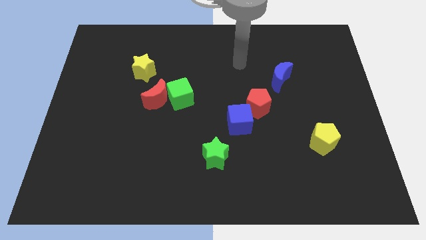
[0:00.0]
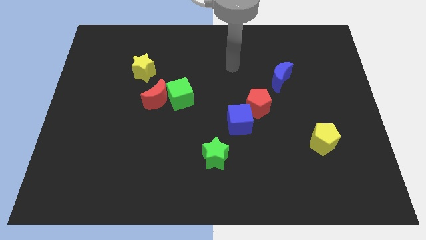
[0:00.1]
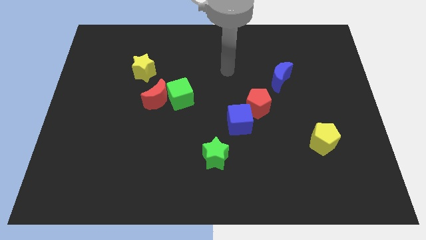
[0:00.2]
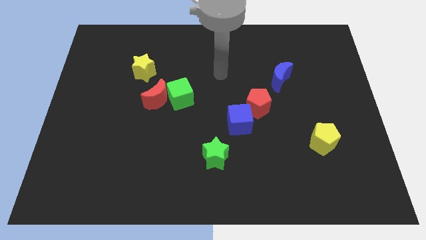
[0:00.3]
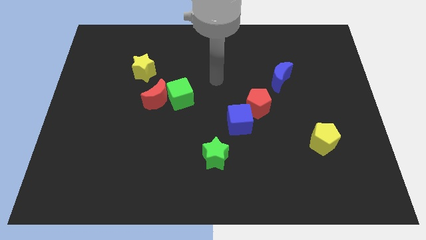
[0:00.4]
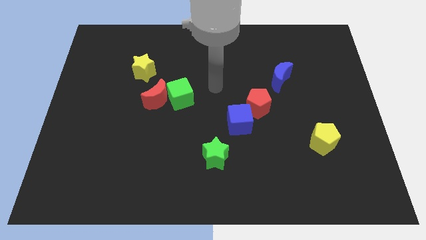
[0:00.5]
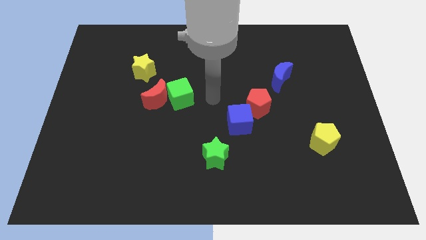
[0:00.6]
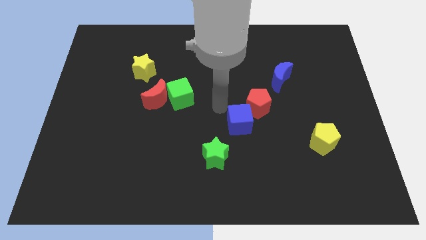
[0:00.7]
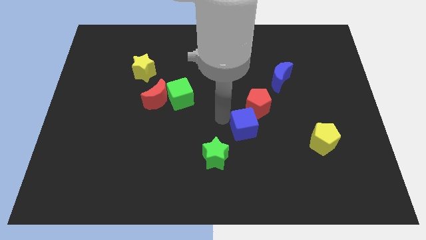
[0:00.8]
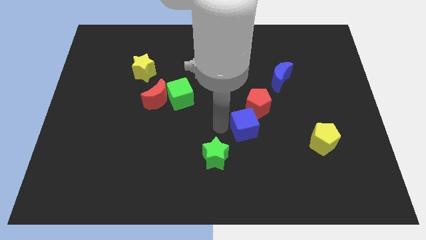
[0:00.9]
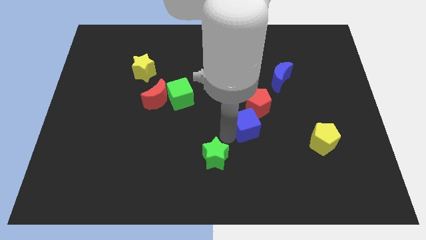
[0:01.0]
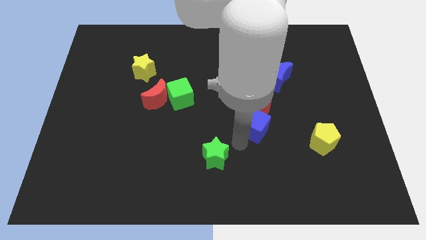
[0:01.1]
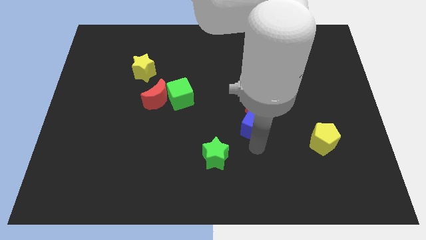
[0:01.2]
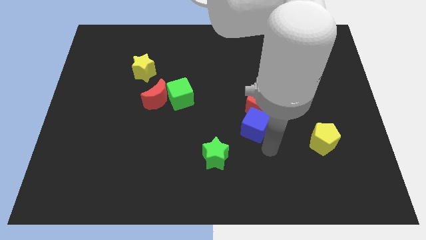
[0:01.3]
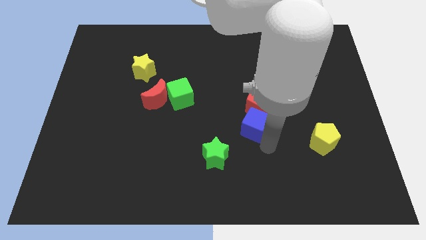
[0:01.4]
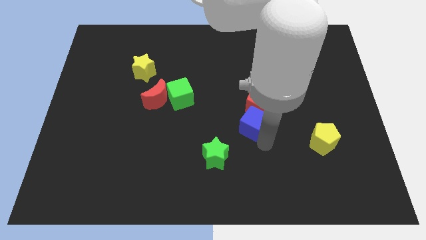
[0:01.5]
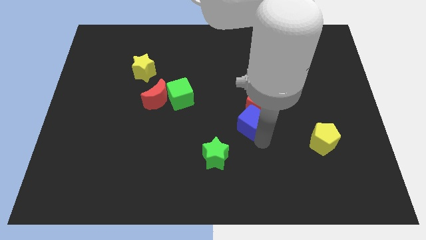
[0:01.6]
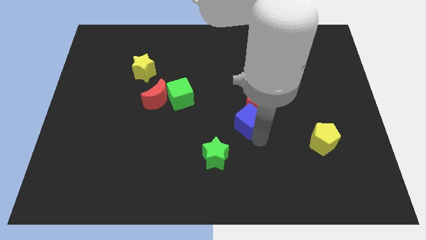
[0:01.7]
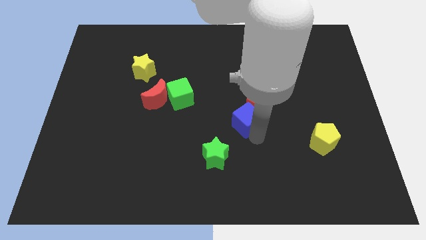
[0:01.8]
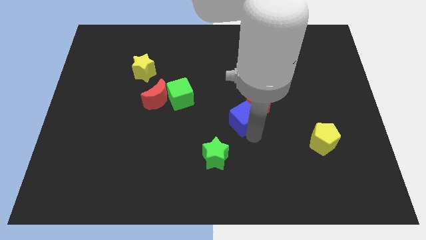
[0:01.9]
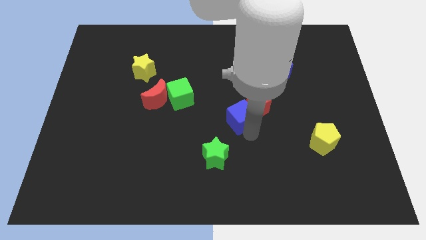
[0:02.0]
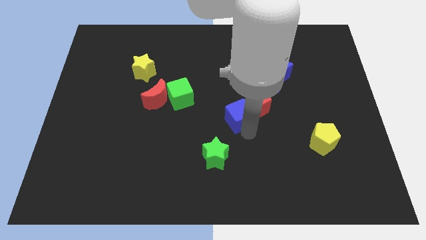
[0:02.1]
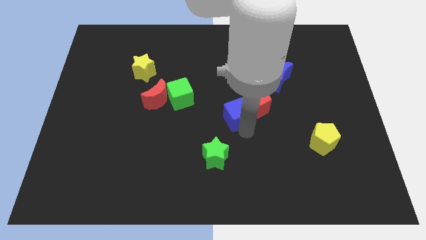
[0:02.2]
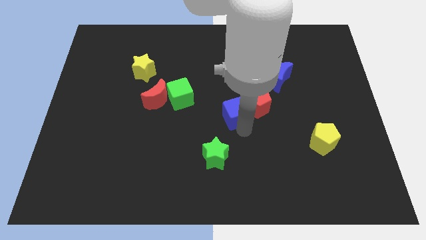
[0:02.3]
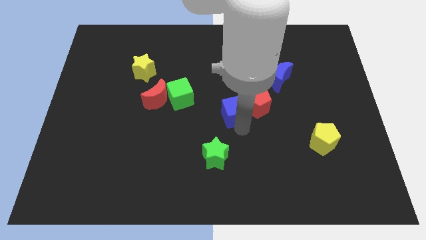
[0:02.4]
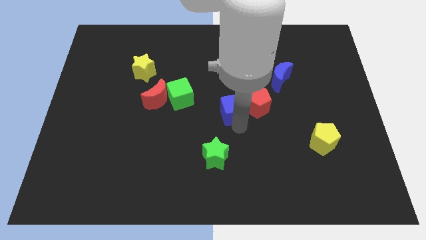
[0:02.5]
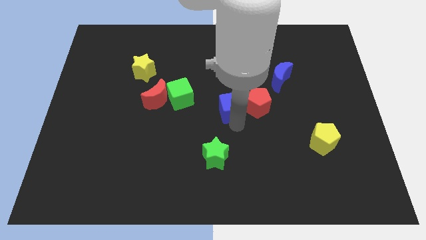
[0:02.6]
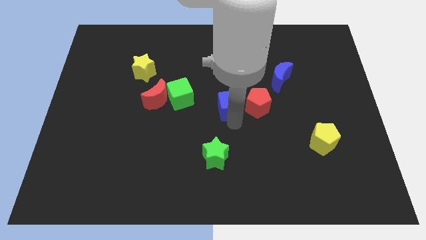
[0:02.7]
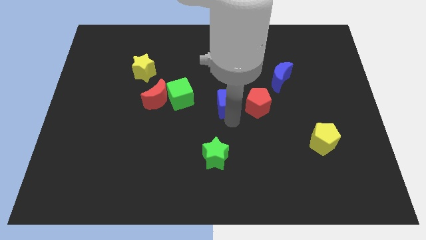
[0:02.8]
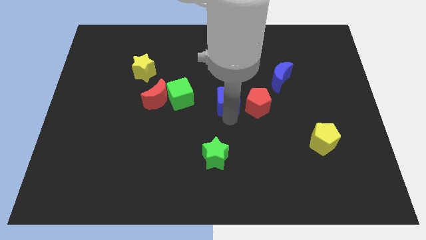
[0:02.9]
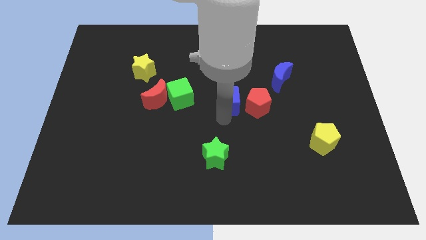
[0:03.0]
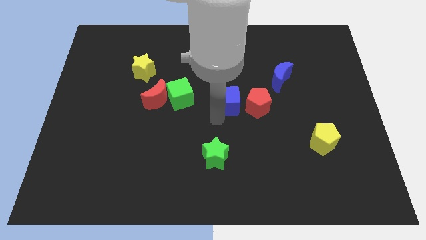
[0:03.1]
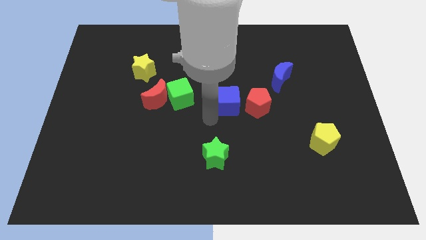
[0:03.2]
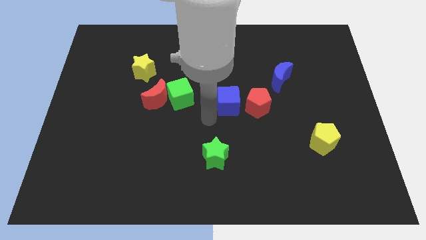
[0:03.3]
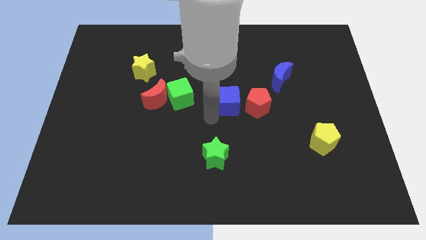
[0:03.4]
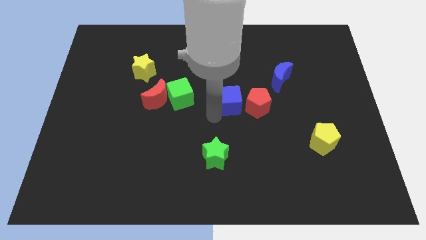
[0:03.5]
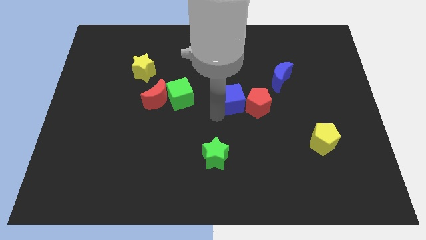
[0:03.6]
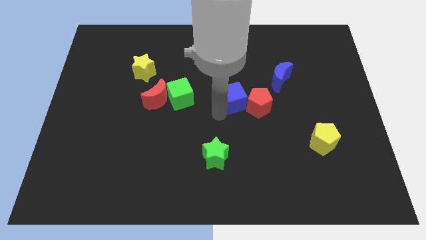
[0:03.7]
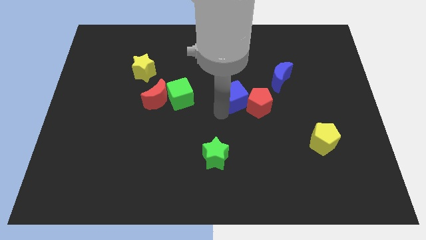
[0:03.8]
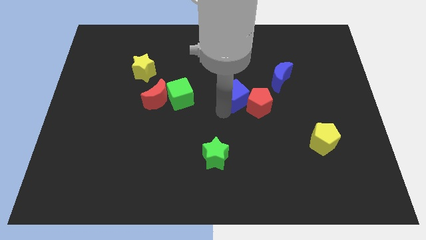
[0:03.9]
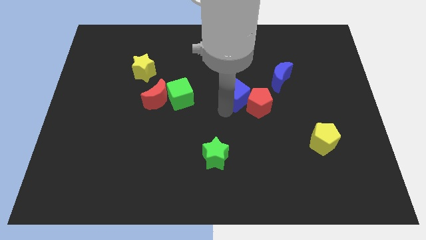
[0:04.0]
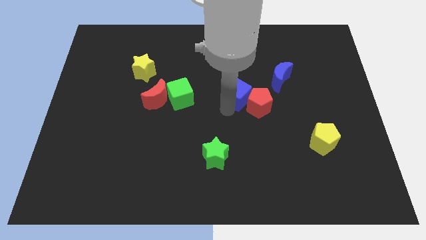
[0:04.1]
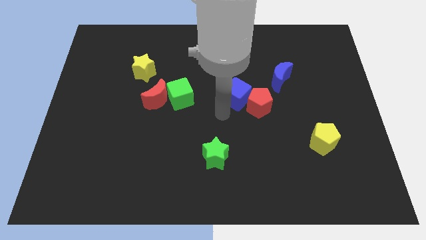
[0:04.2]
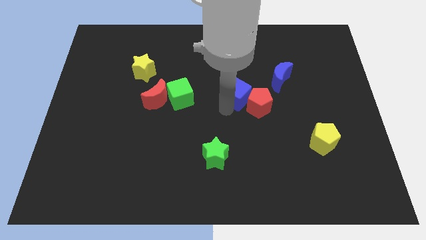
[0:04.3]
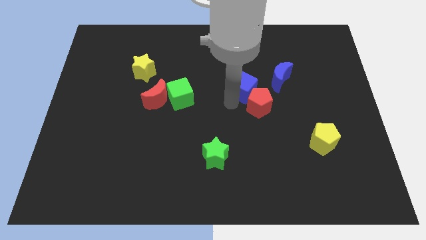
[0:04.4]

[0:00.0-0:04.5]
slide the blue cube to the top side of the red pentagon

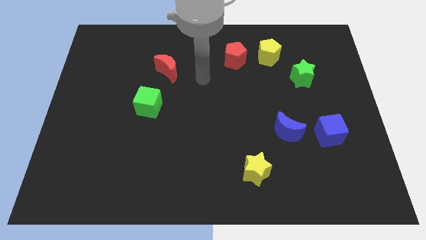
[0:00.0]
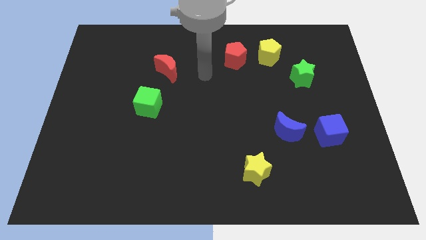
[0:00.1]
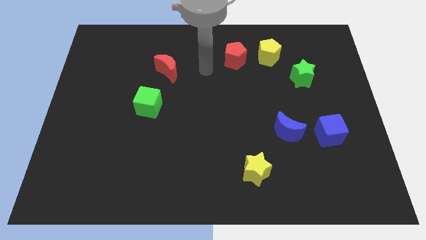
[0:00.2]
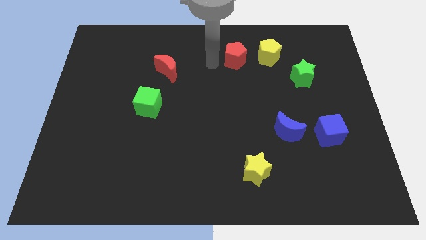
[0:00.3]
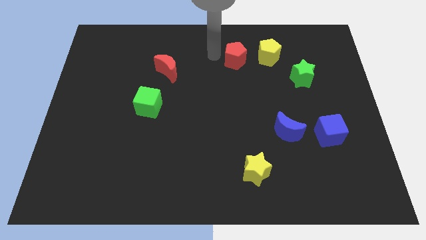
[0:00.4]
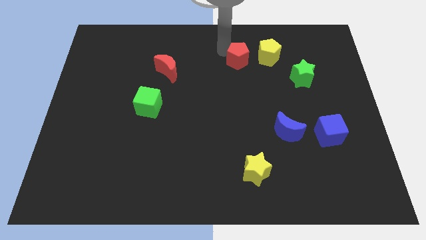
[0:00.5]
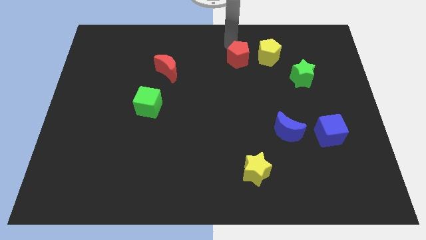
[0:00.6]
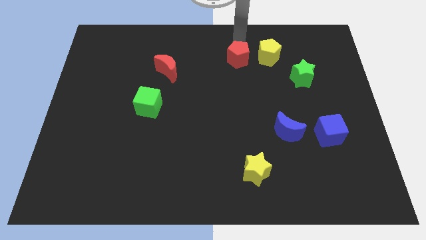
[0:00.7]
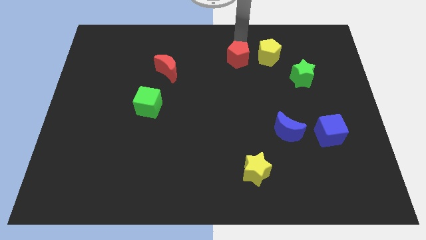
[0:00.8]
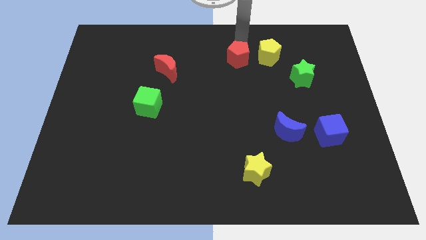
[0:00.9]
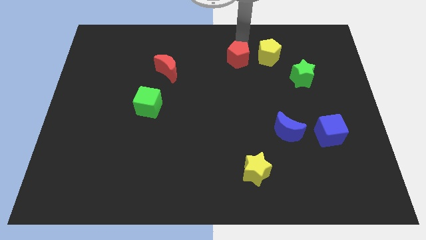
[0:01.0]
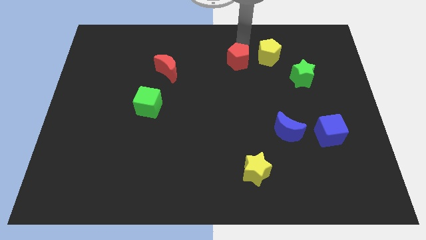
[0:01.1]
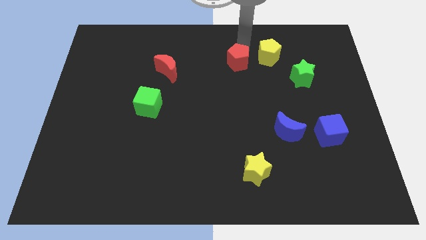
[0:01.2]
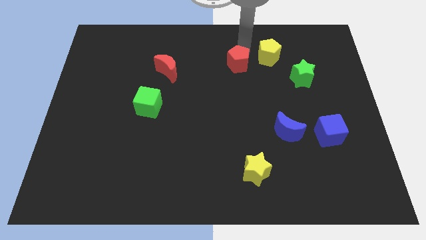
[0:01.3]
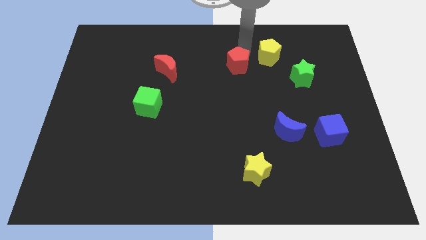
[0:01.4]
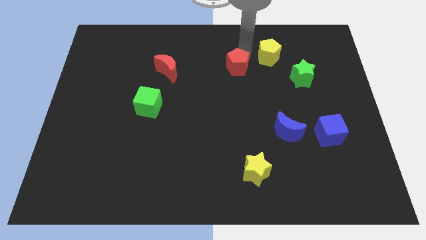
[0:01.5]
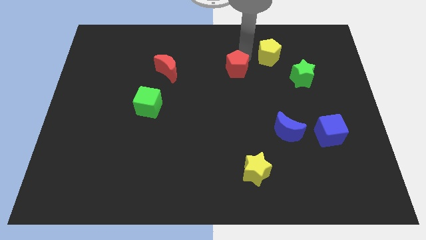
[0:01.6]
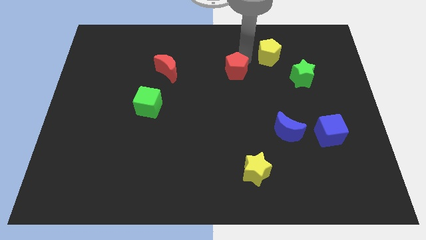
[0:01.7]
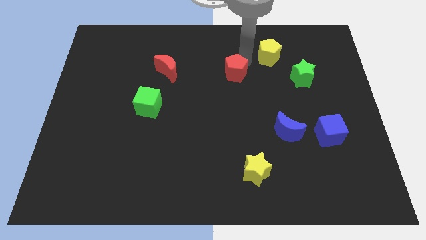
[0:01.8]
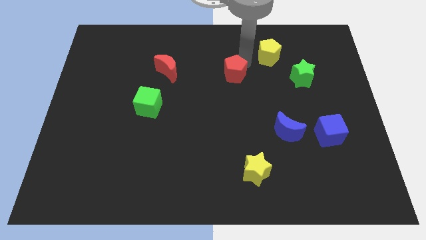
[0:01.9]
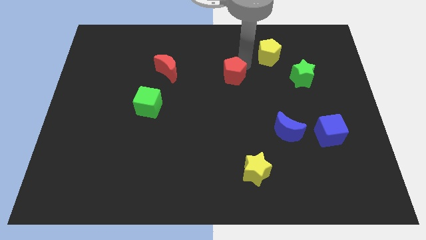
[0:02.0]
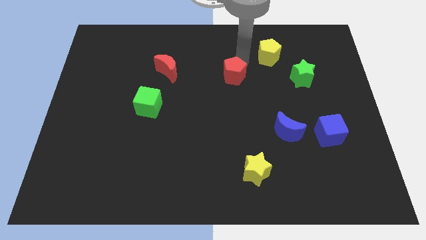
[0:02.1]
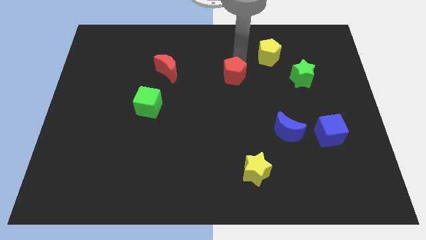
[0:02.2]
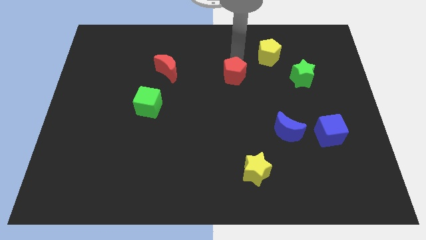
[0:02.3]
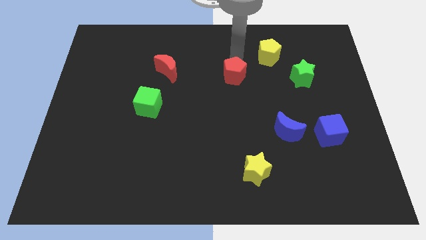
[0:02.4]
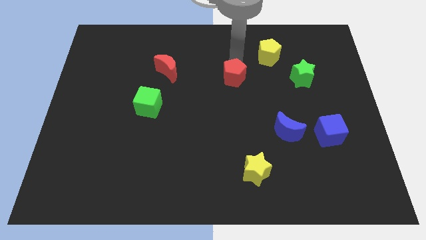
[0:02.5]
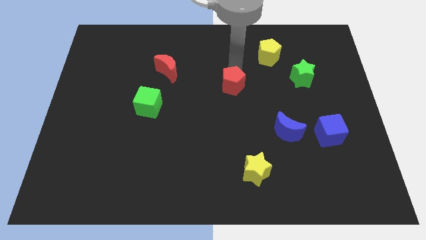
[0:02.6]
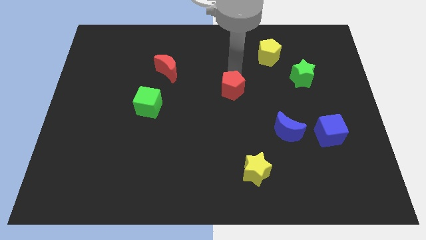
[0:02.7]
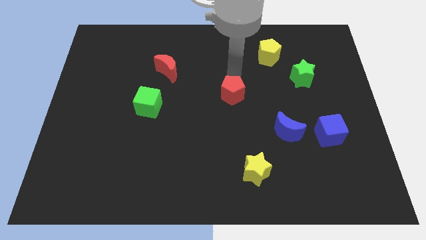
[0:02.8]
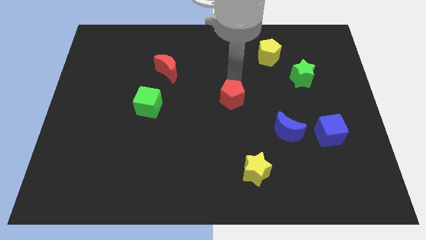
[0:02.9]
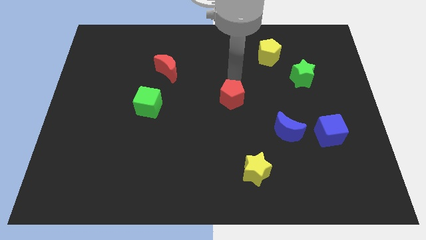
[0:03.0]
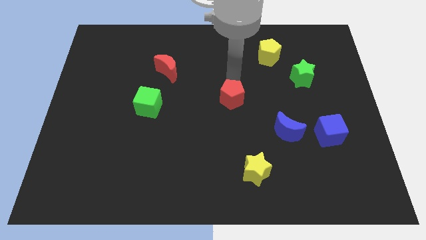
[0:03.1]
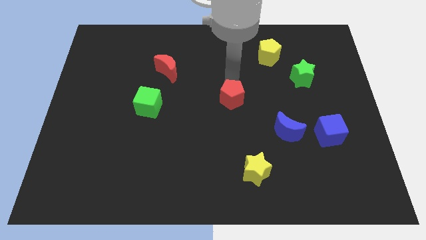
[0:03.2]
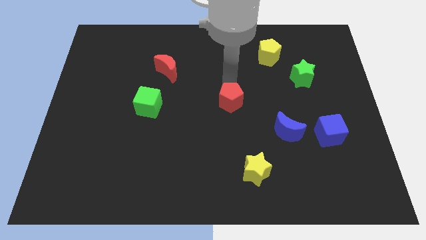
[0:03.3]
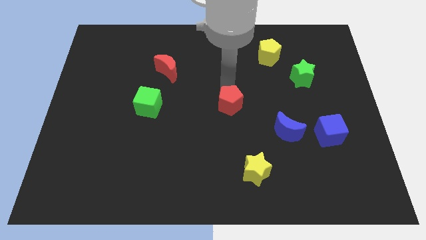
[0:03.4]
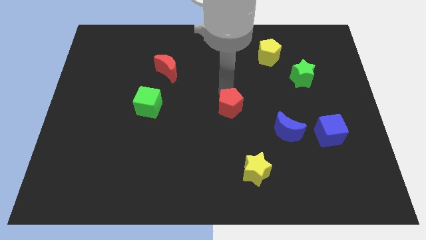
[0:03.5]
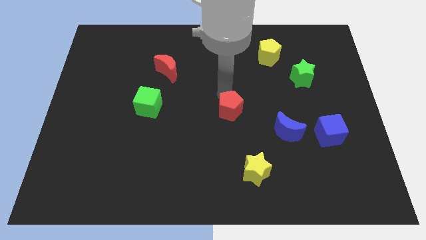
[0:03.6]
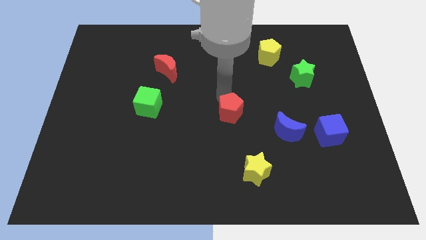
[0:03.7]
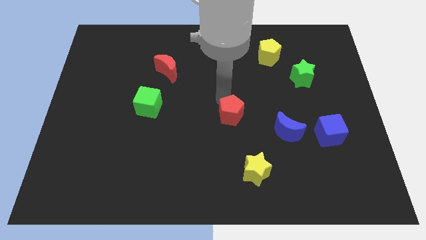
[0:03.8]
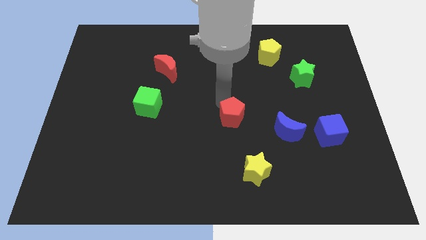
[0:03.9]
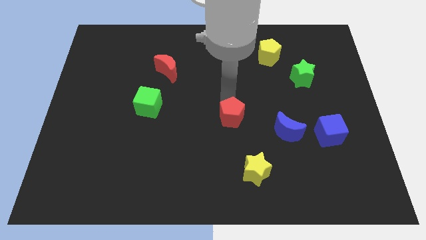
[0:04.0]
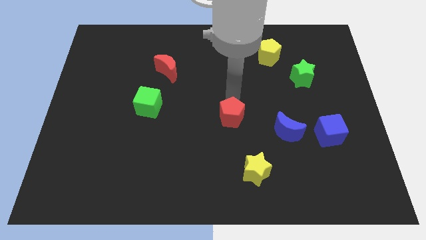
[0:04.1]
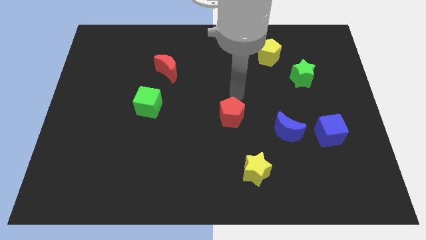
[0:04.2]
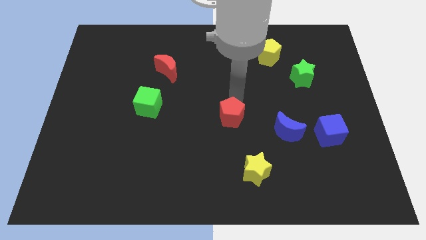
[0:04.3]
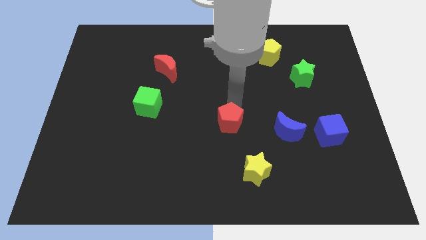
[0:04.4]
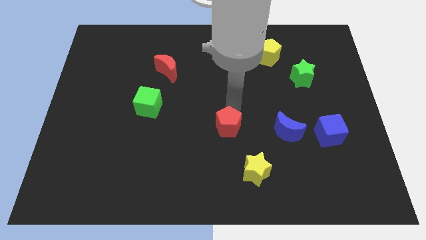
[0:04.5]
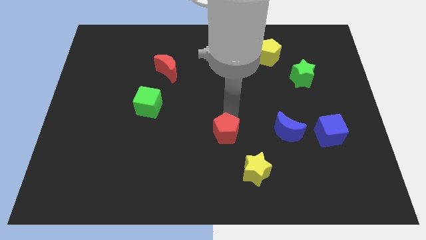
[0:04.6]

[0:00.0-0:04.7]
put the red pentagon to the top left side of the yellow star
